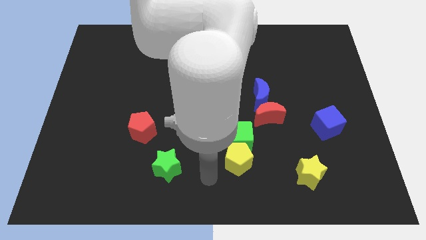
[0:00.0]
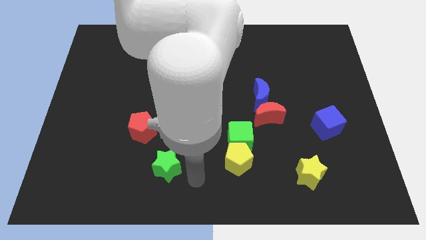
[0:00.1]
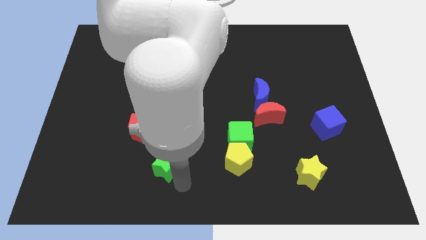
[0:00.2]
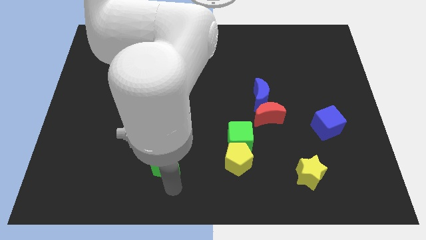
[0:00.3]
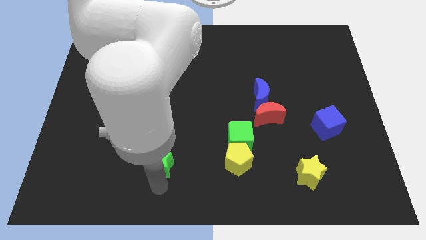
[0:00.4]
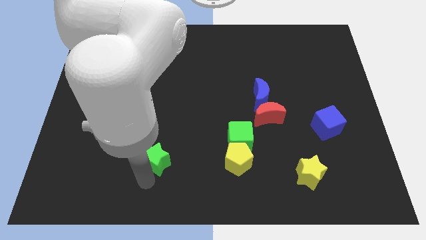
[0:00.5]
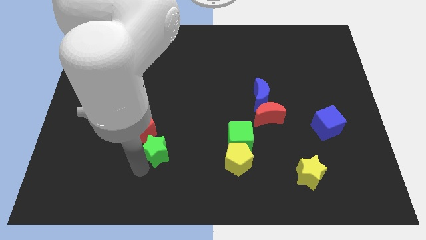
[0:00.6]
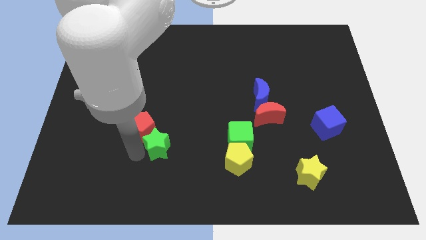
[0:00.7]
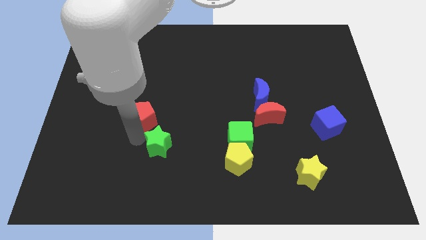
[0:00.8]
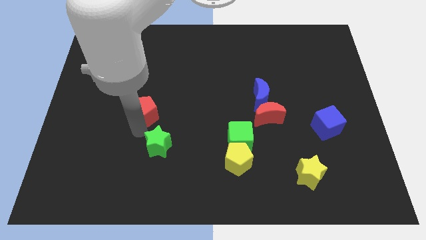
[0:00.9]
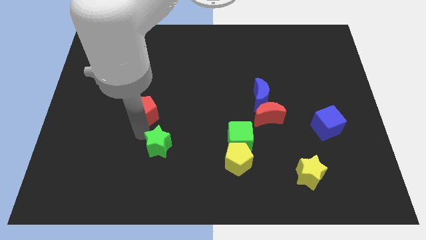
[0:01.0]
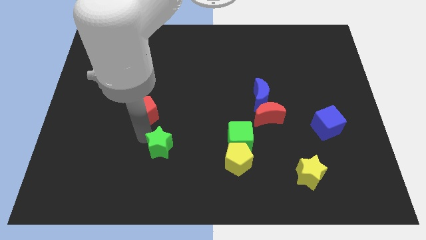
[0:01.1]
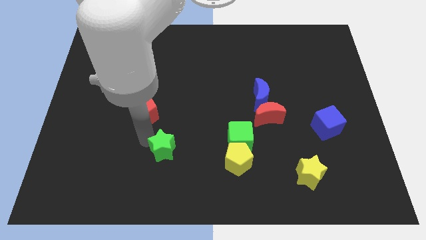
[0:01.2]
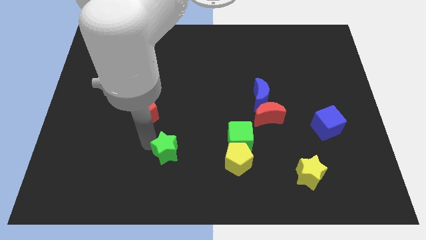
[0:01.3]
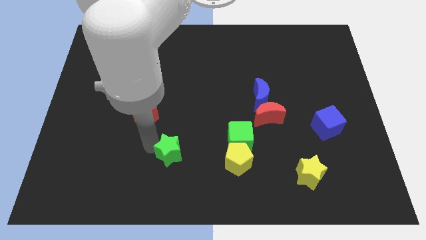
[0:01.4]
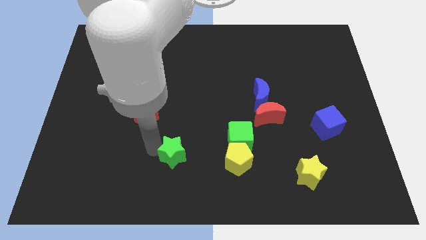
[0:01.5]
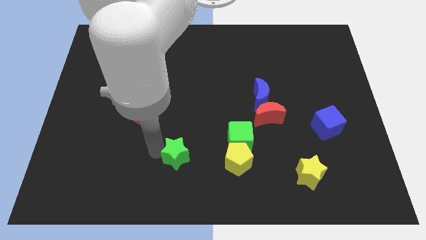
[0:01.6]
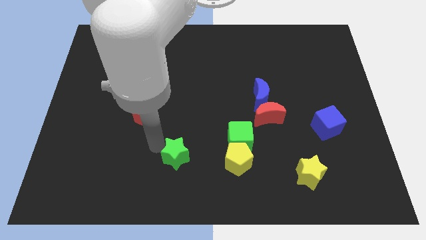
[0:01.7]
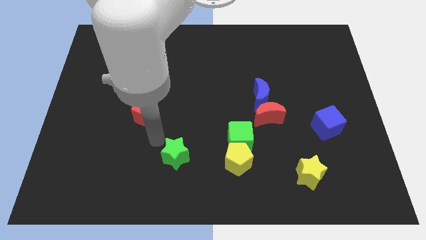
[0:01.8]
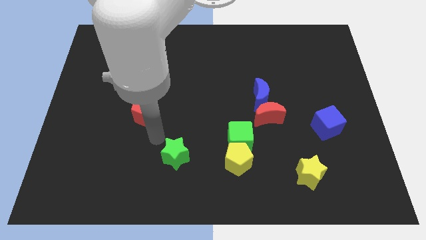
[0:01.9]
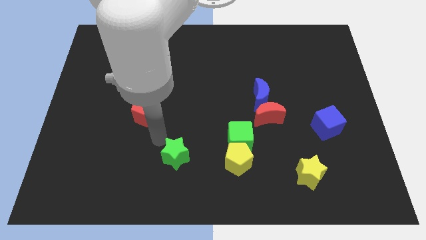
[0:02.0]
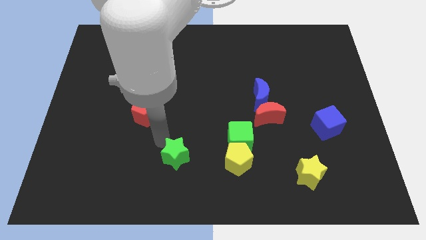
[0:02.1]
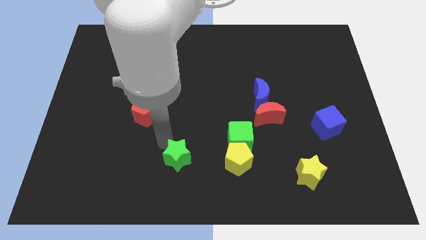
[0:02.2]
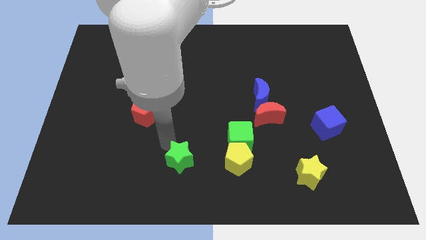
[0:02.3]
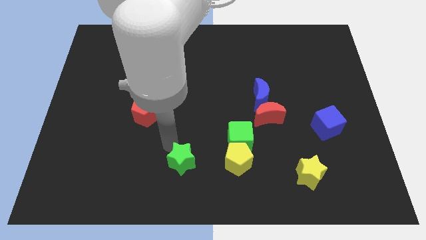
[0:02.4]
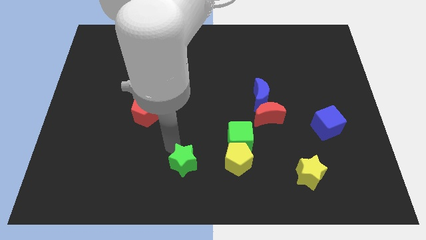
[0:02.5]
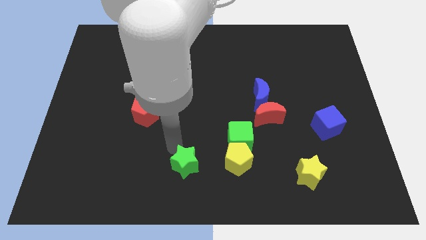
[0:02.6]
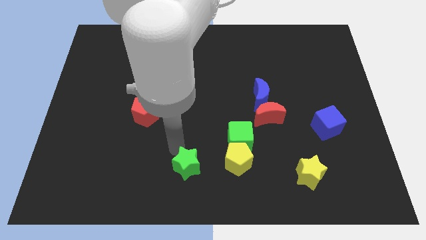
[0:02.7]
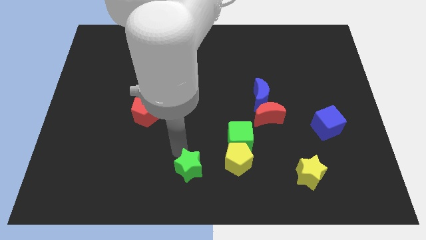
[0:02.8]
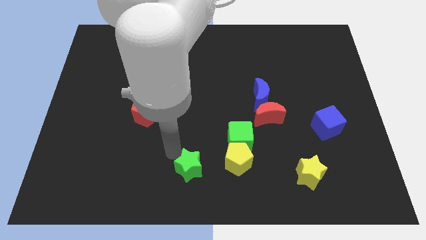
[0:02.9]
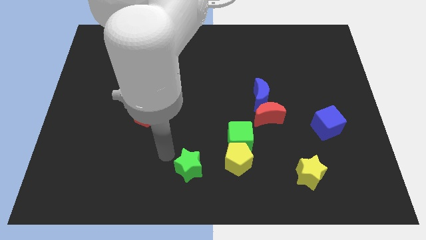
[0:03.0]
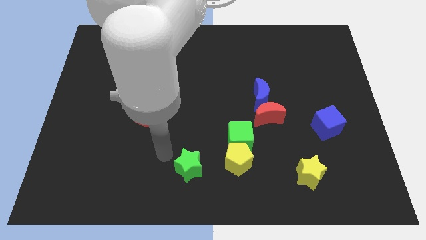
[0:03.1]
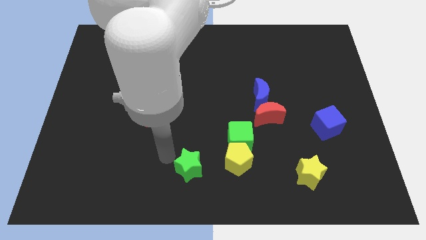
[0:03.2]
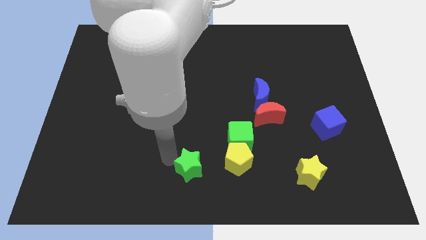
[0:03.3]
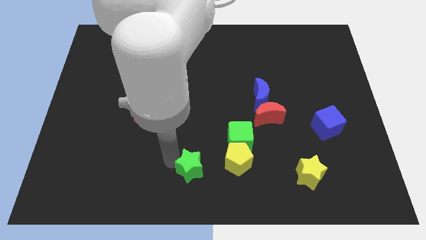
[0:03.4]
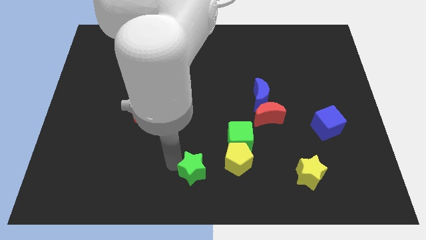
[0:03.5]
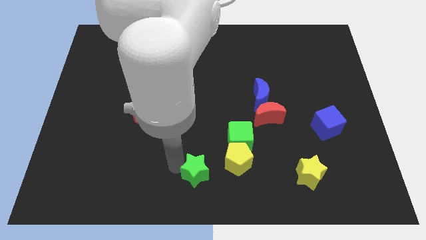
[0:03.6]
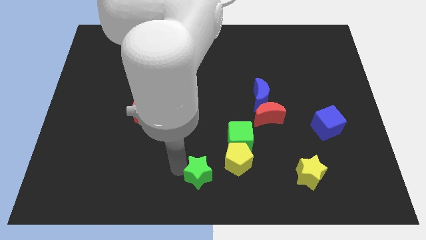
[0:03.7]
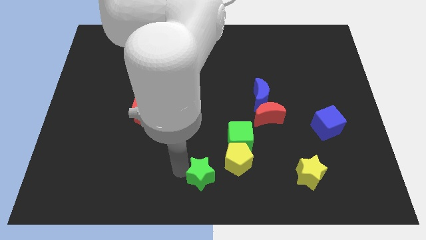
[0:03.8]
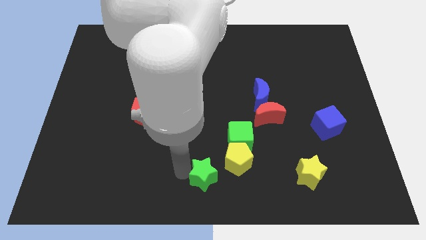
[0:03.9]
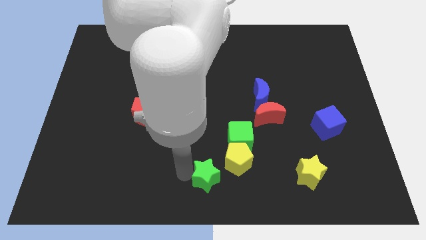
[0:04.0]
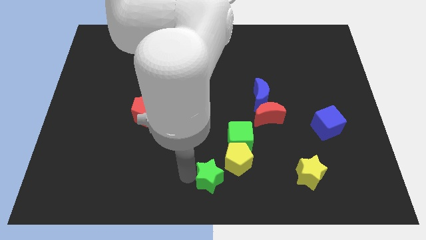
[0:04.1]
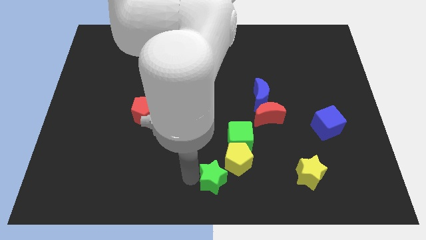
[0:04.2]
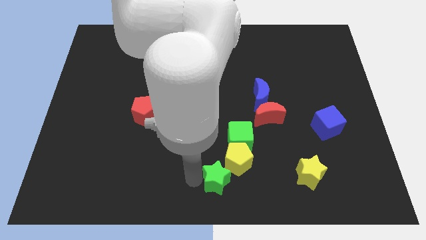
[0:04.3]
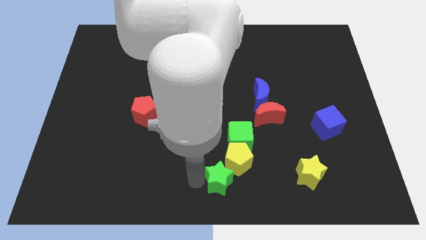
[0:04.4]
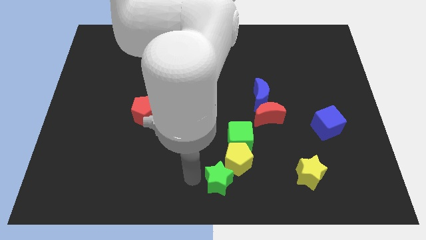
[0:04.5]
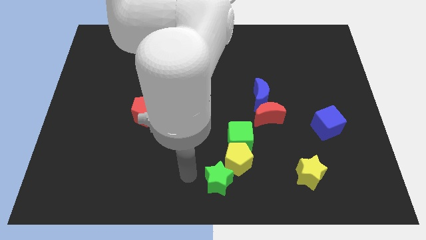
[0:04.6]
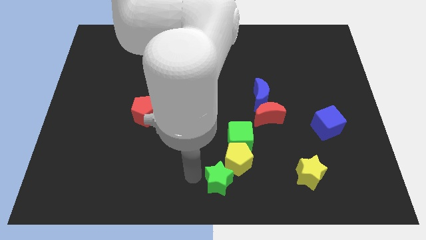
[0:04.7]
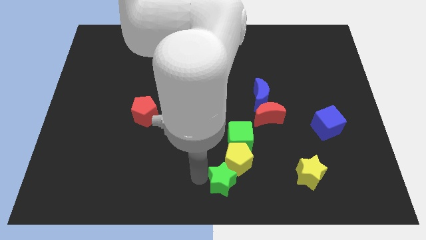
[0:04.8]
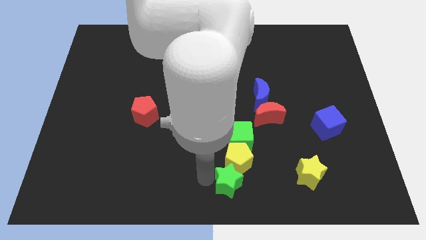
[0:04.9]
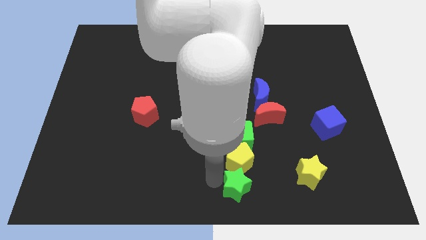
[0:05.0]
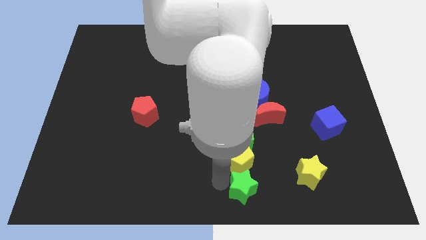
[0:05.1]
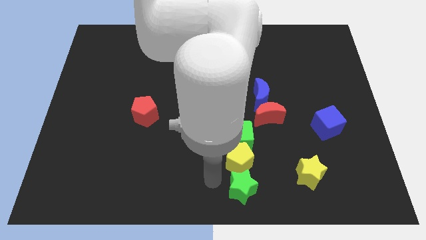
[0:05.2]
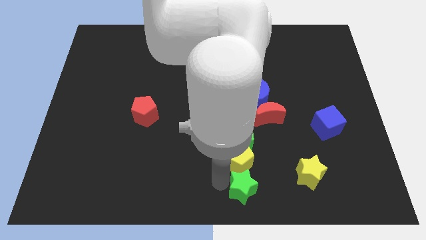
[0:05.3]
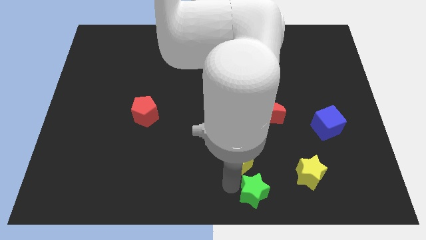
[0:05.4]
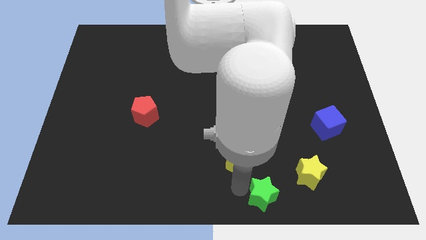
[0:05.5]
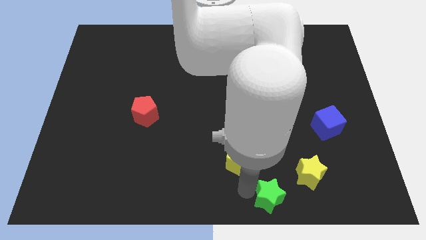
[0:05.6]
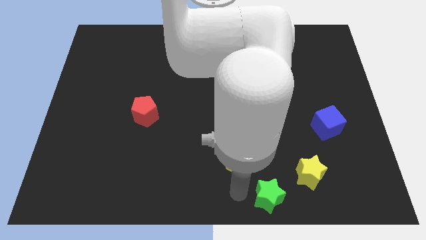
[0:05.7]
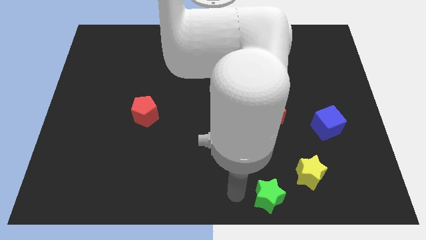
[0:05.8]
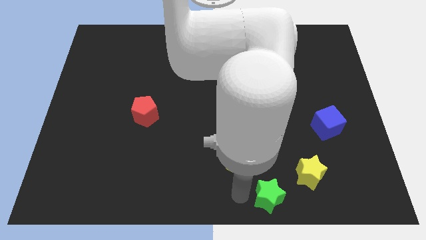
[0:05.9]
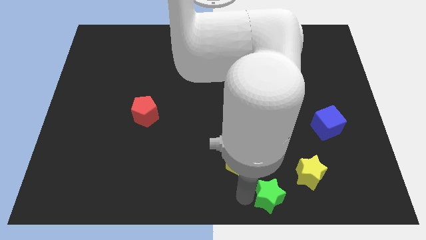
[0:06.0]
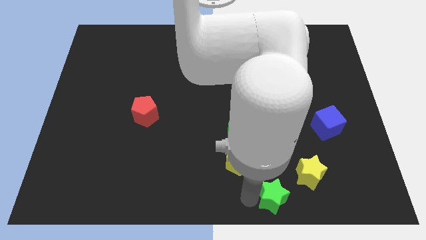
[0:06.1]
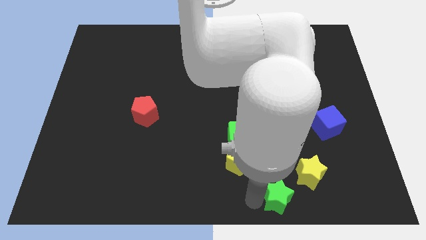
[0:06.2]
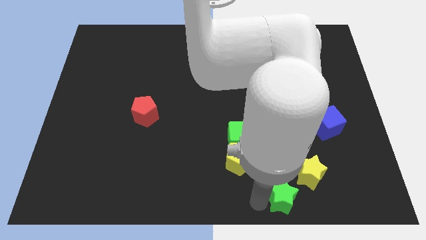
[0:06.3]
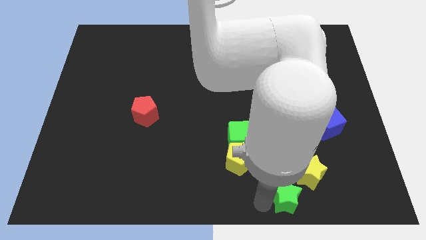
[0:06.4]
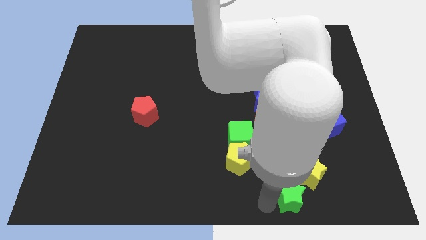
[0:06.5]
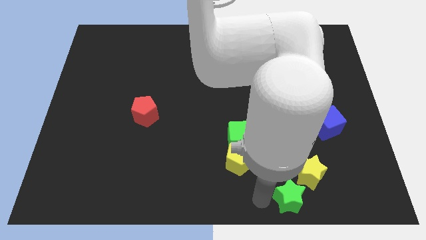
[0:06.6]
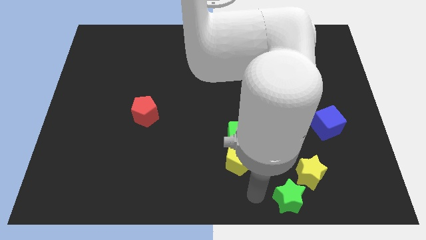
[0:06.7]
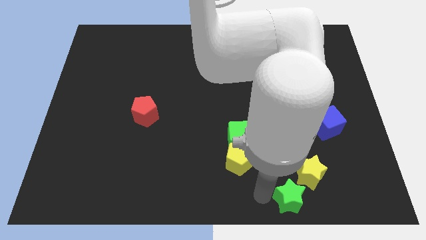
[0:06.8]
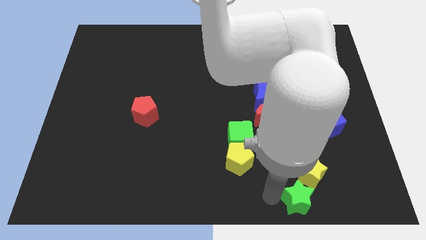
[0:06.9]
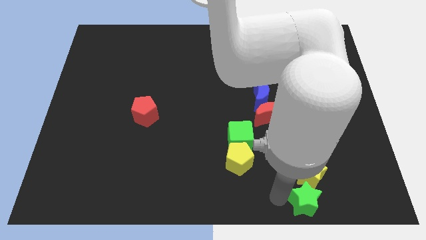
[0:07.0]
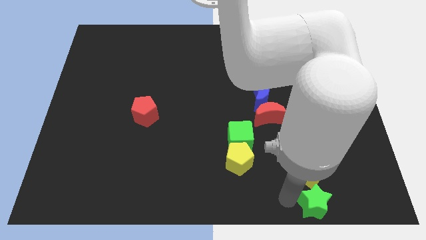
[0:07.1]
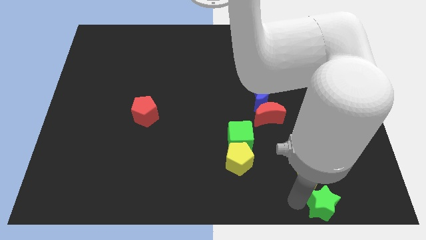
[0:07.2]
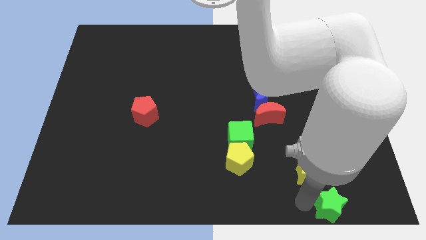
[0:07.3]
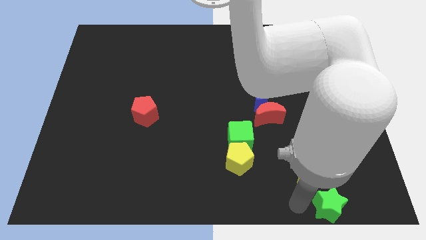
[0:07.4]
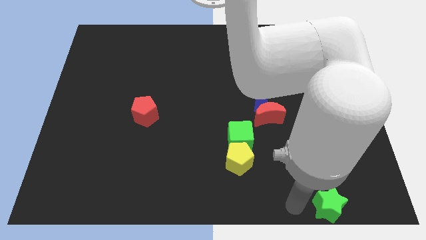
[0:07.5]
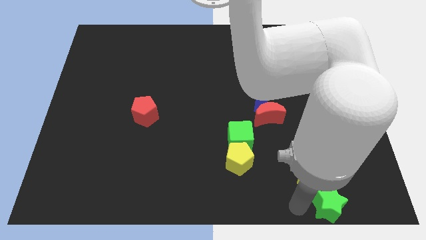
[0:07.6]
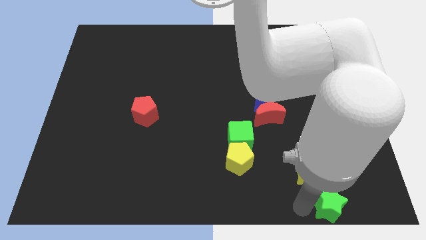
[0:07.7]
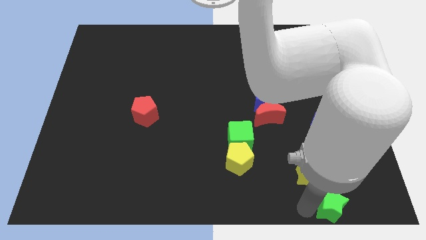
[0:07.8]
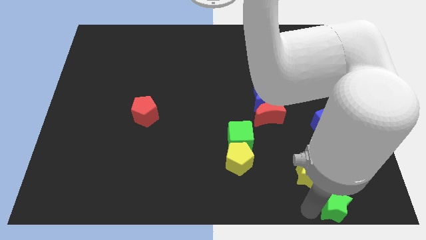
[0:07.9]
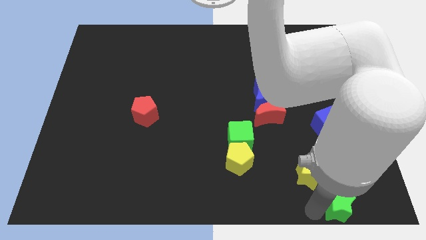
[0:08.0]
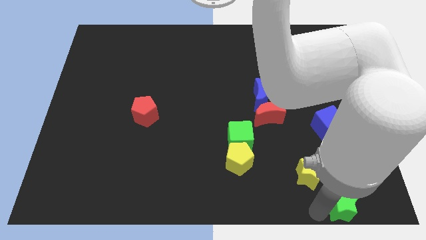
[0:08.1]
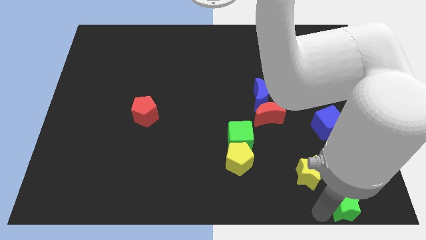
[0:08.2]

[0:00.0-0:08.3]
push the green star to the bottom right corner
